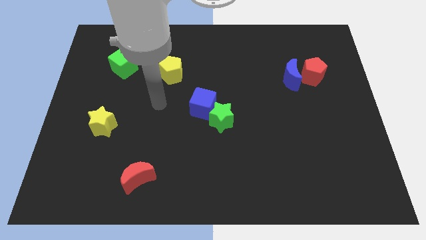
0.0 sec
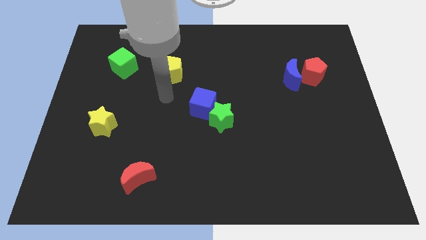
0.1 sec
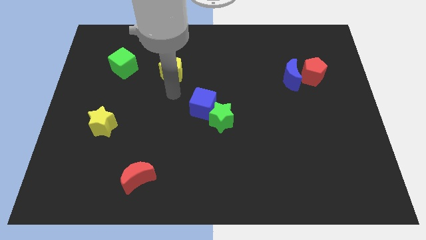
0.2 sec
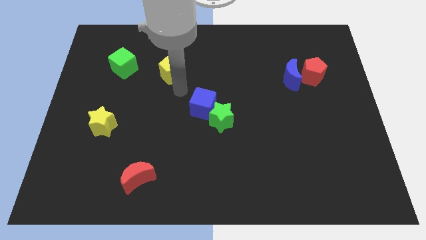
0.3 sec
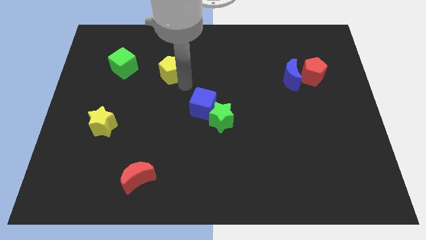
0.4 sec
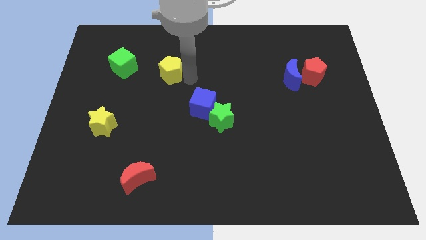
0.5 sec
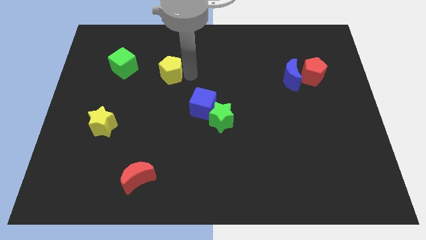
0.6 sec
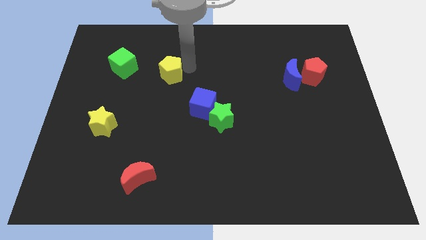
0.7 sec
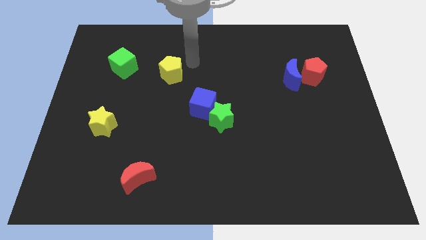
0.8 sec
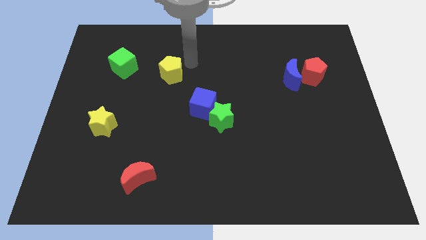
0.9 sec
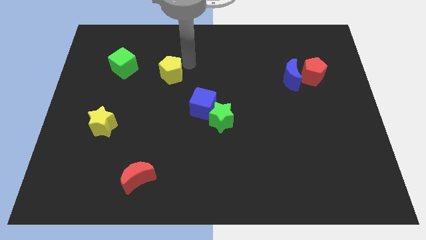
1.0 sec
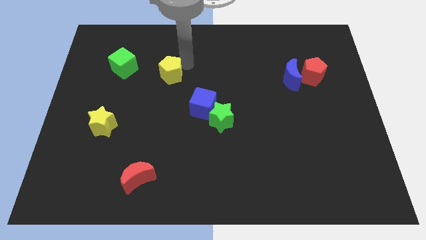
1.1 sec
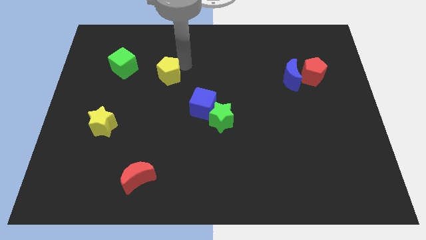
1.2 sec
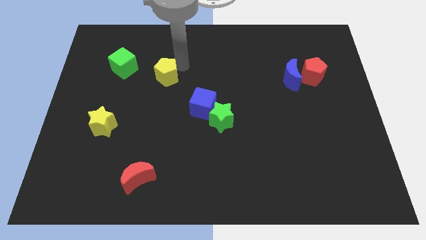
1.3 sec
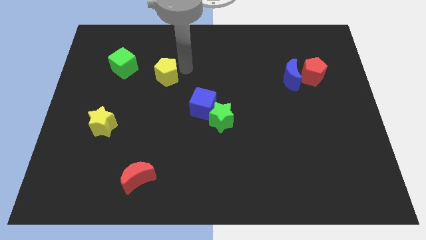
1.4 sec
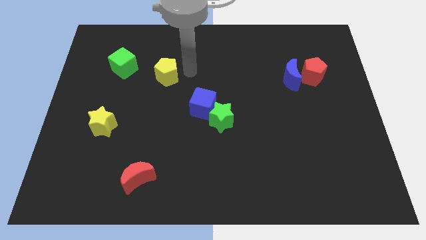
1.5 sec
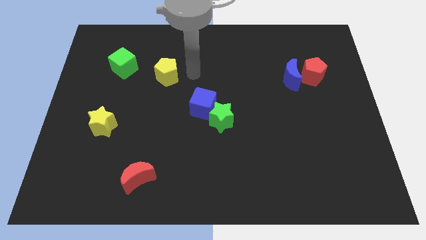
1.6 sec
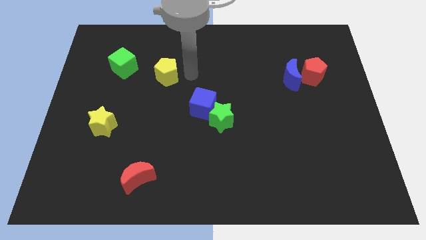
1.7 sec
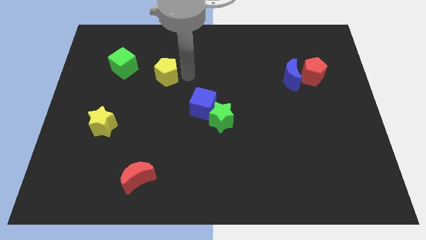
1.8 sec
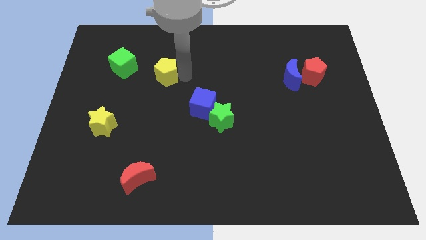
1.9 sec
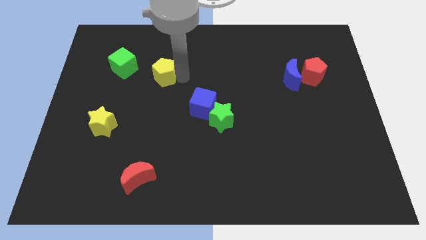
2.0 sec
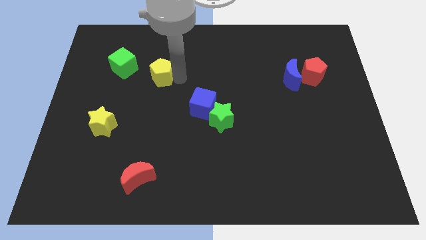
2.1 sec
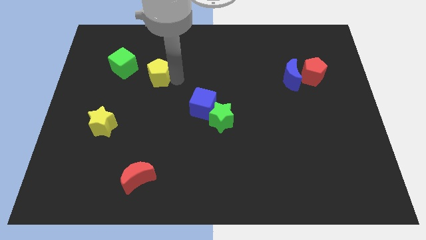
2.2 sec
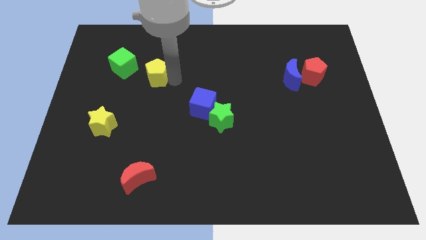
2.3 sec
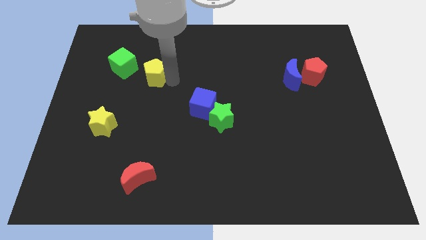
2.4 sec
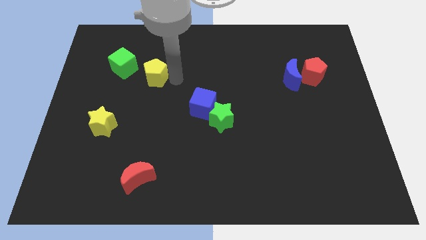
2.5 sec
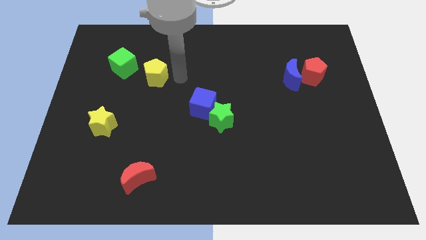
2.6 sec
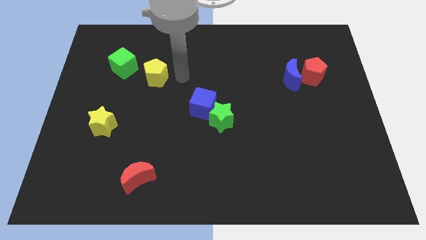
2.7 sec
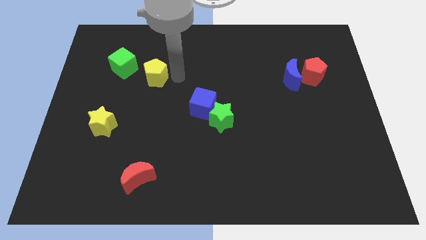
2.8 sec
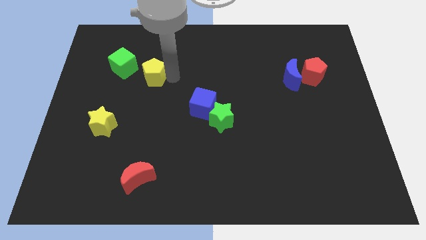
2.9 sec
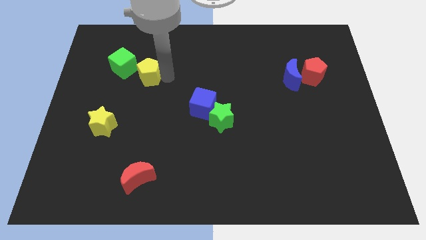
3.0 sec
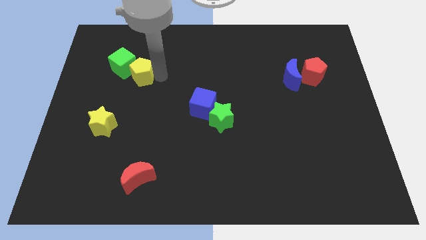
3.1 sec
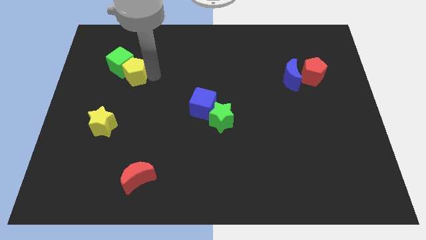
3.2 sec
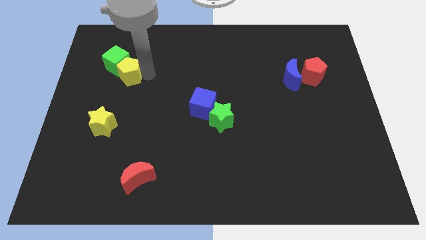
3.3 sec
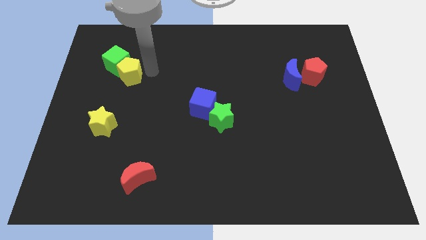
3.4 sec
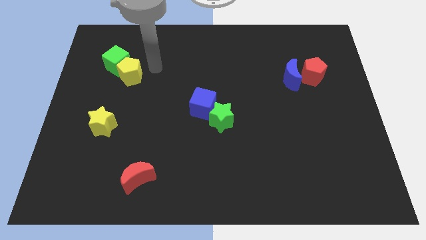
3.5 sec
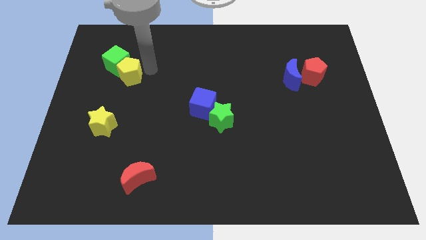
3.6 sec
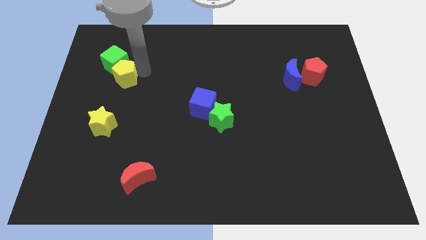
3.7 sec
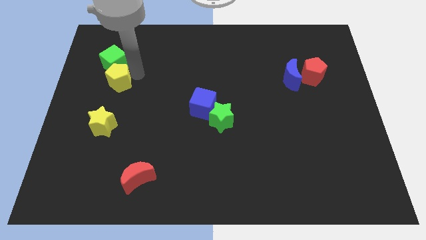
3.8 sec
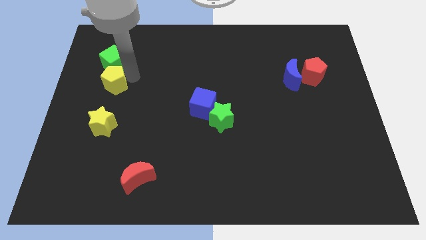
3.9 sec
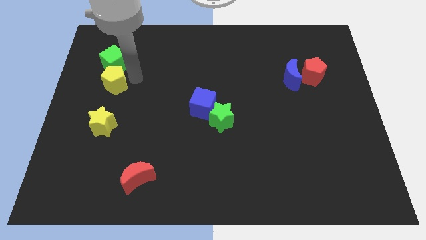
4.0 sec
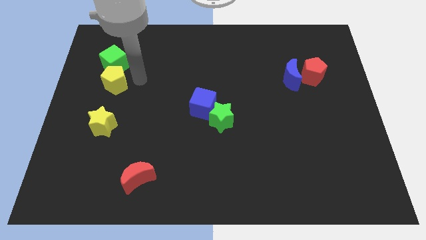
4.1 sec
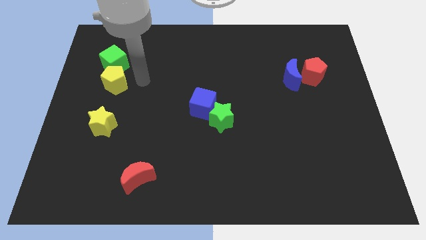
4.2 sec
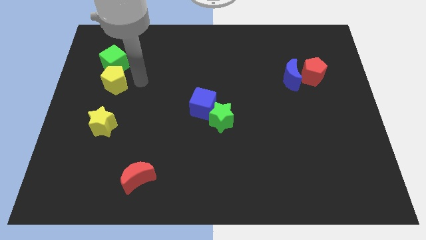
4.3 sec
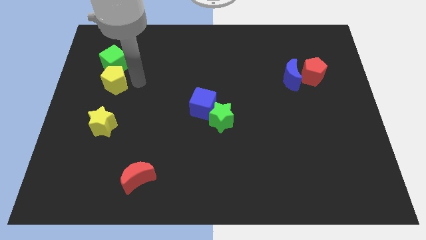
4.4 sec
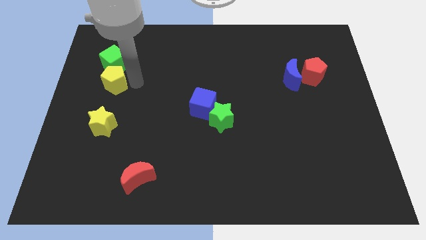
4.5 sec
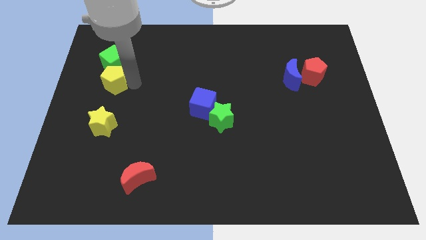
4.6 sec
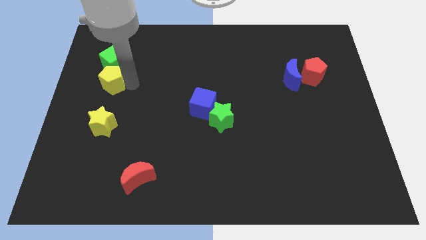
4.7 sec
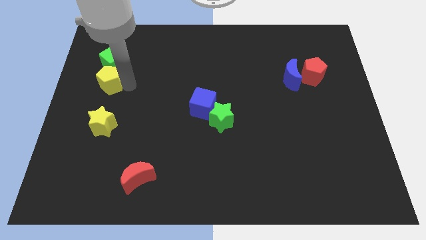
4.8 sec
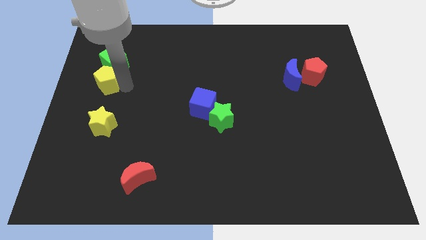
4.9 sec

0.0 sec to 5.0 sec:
put the yellow pentagon to the center left
